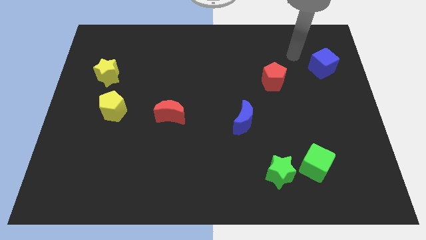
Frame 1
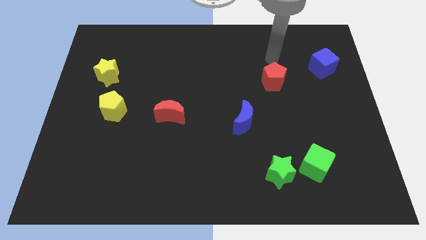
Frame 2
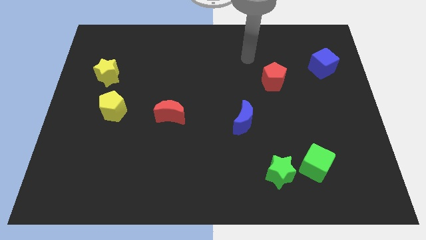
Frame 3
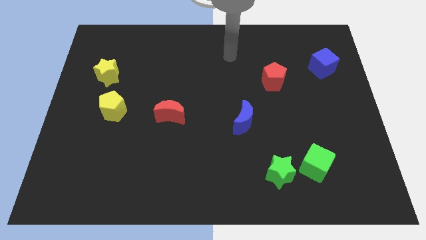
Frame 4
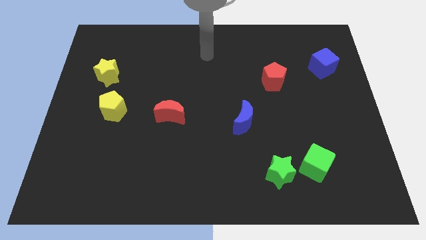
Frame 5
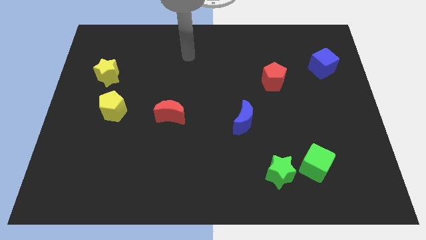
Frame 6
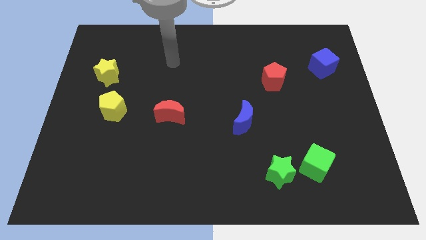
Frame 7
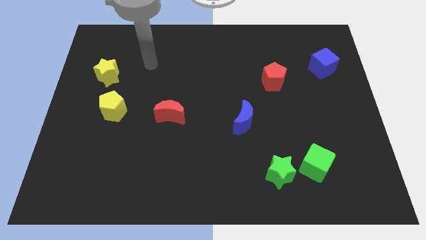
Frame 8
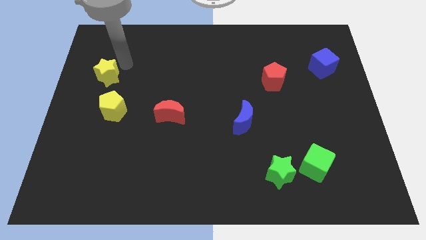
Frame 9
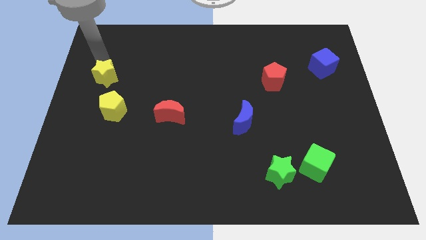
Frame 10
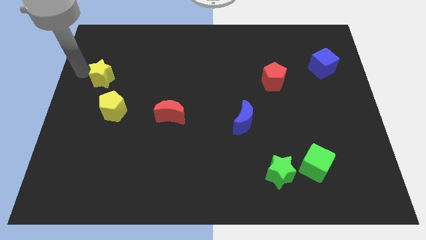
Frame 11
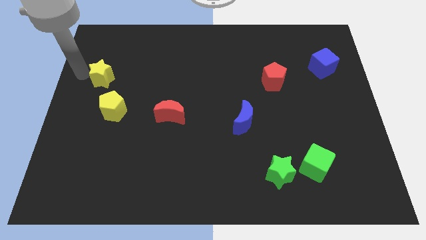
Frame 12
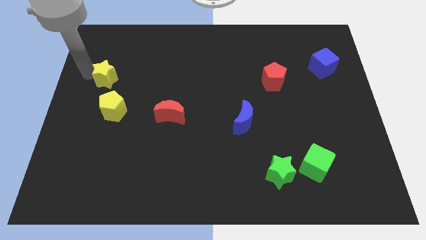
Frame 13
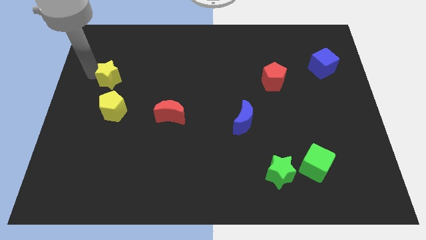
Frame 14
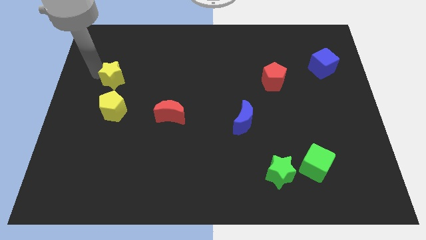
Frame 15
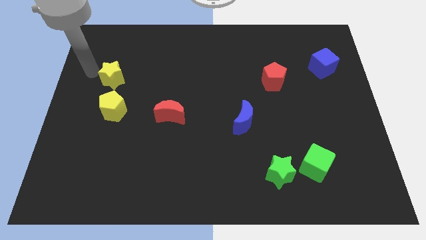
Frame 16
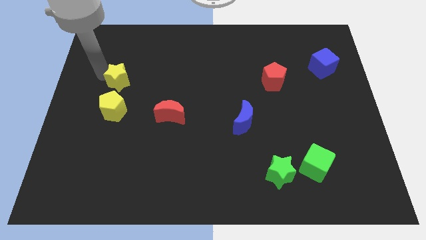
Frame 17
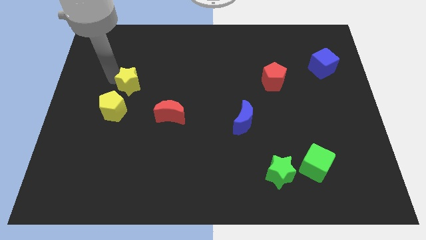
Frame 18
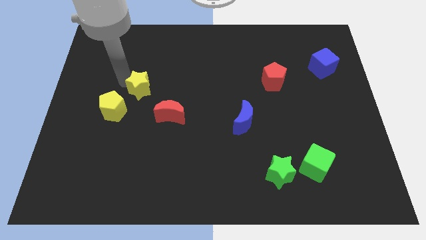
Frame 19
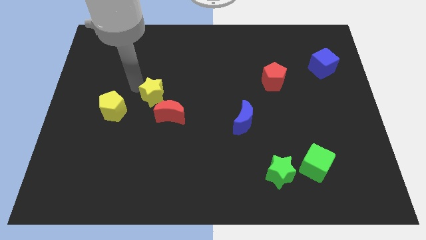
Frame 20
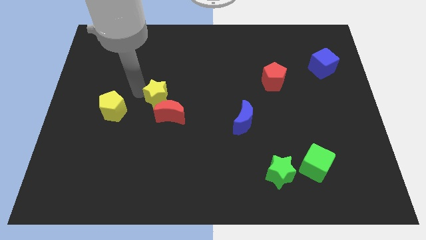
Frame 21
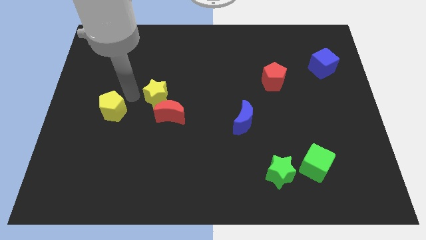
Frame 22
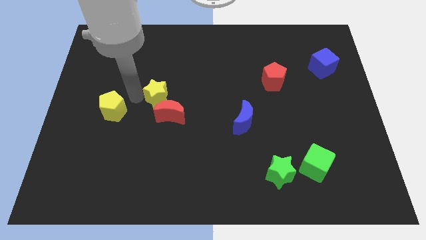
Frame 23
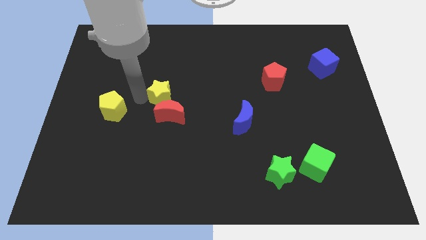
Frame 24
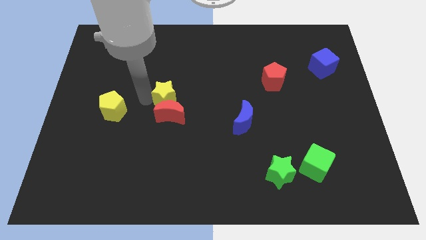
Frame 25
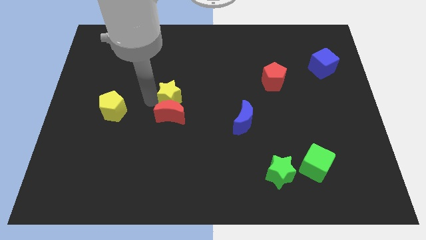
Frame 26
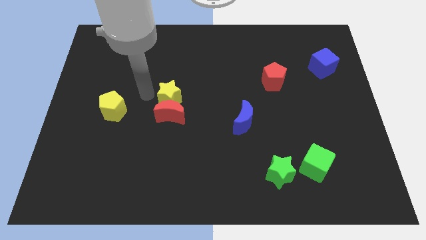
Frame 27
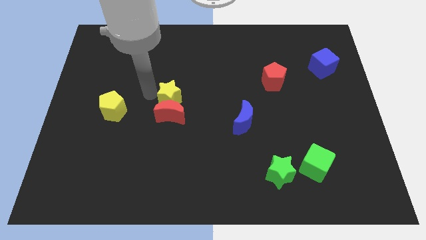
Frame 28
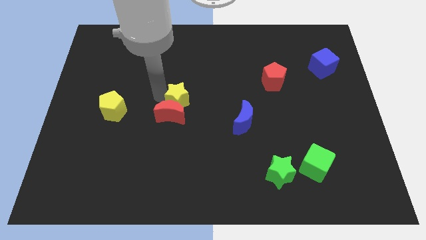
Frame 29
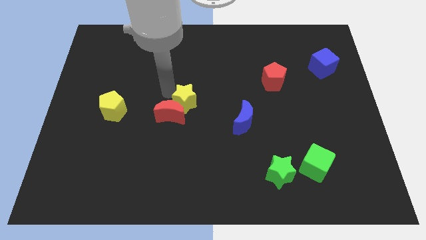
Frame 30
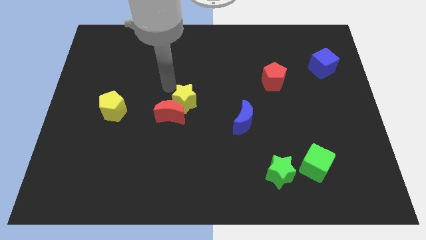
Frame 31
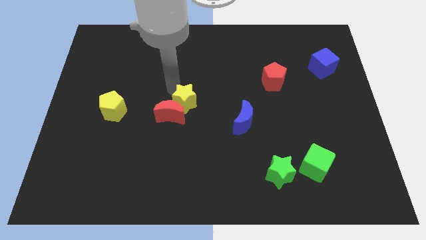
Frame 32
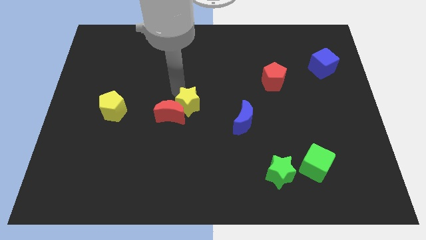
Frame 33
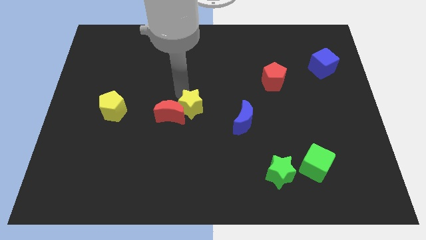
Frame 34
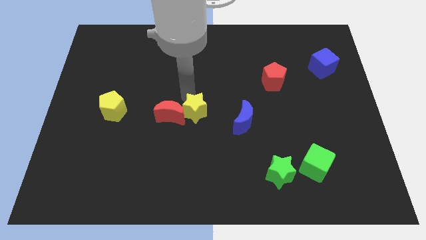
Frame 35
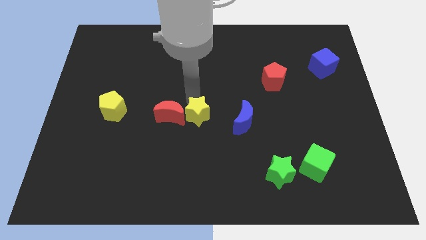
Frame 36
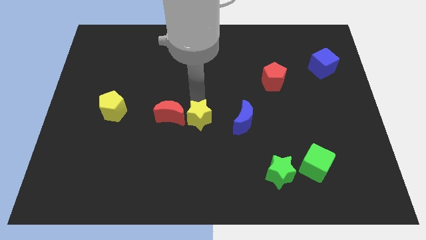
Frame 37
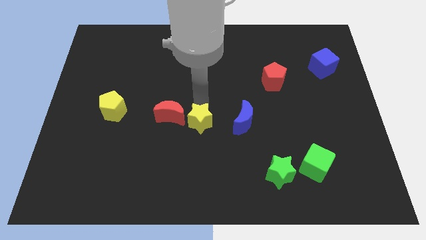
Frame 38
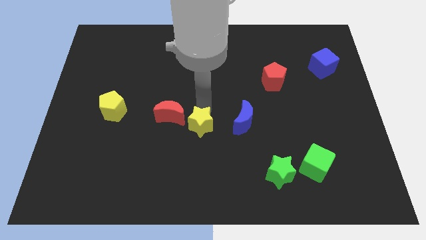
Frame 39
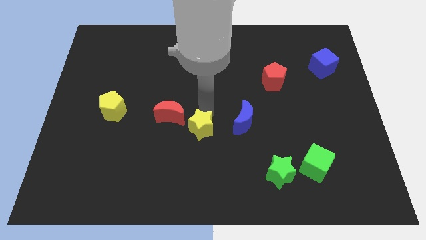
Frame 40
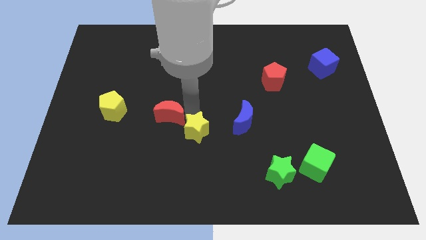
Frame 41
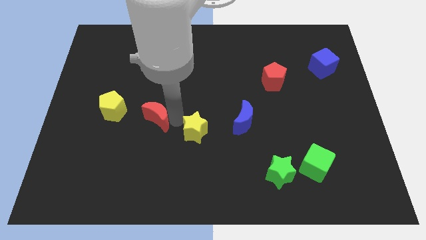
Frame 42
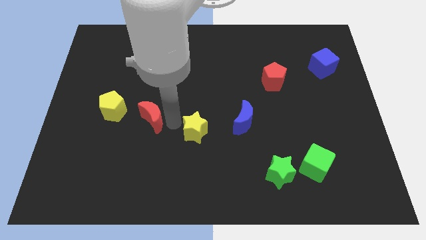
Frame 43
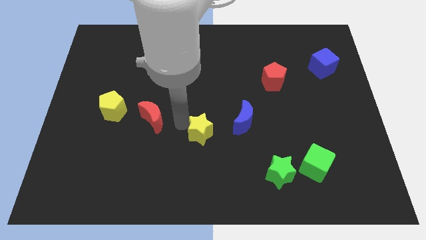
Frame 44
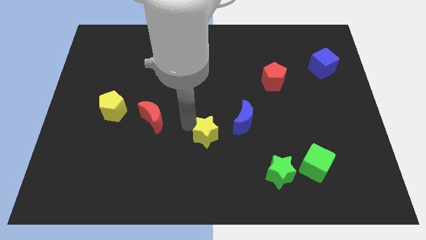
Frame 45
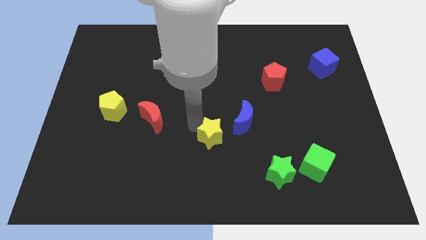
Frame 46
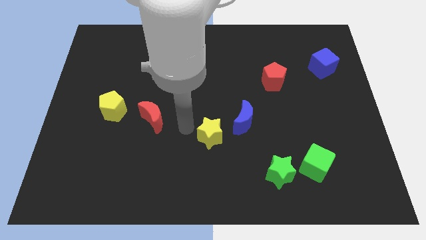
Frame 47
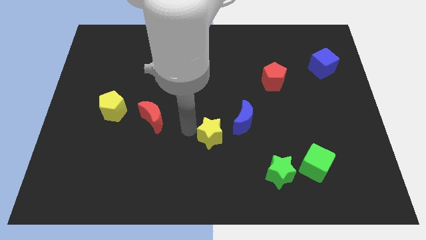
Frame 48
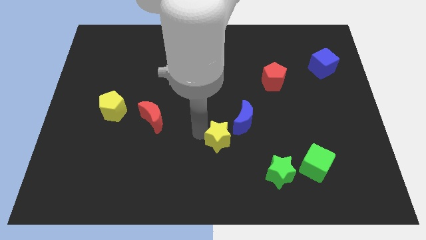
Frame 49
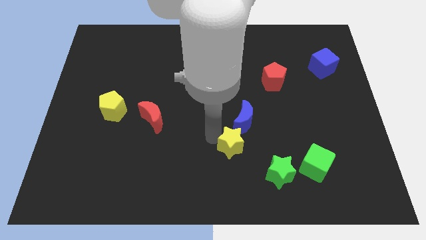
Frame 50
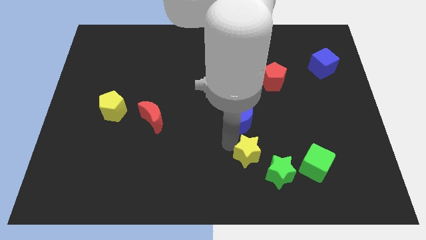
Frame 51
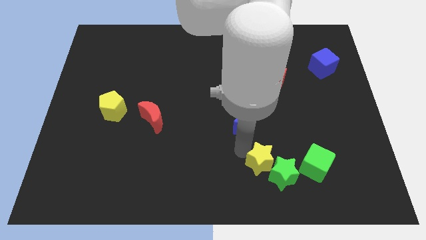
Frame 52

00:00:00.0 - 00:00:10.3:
move the yellow star next to the green star

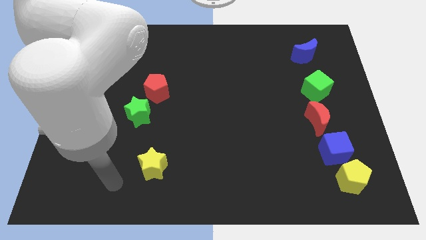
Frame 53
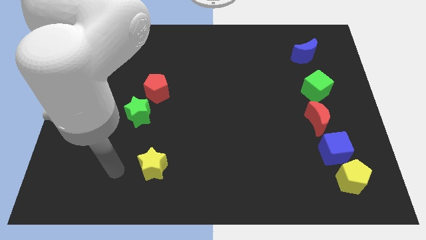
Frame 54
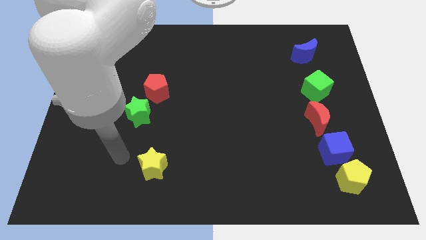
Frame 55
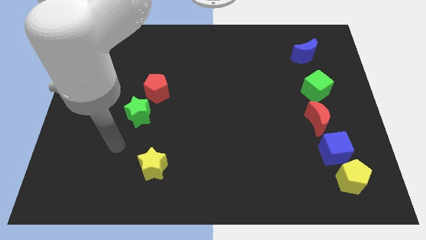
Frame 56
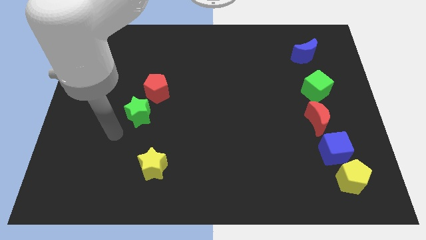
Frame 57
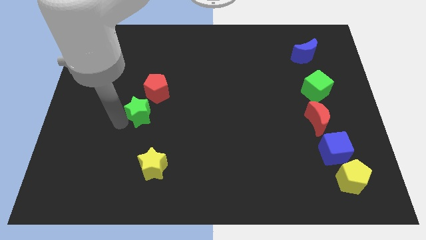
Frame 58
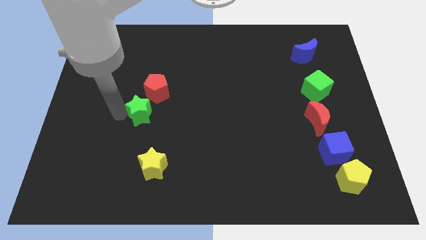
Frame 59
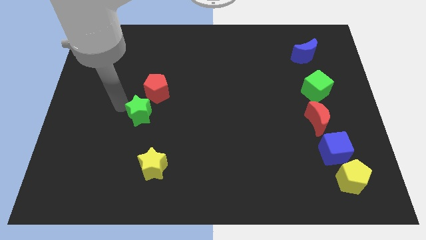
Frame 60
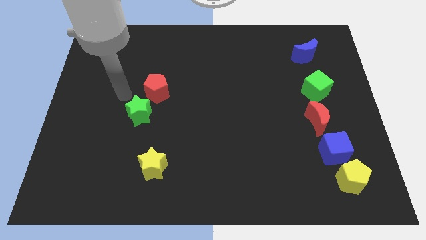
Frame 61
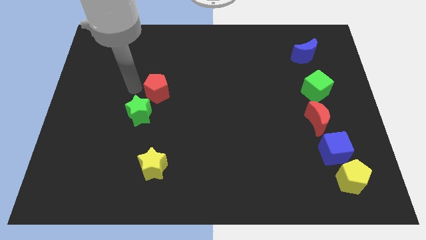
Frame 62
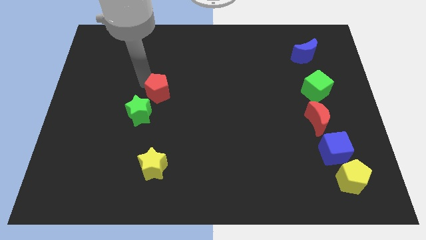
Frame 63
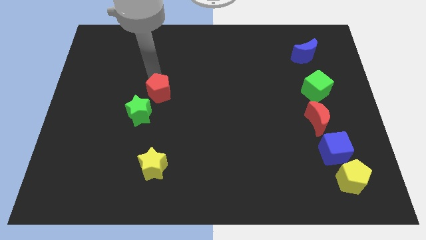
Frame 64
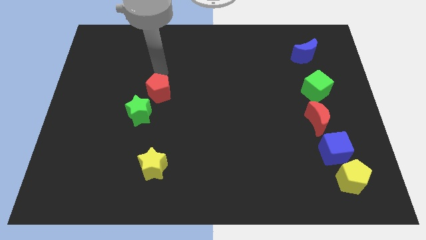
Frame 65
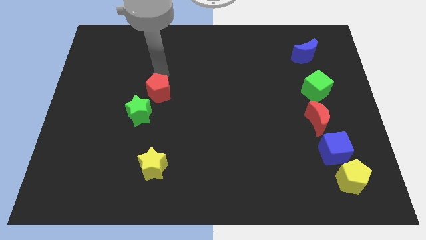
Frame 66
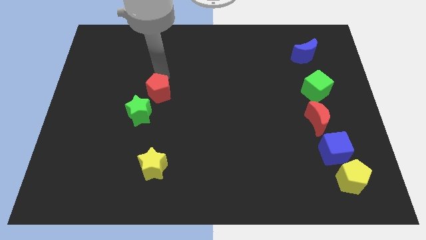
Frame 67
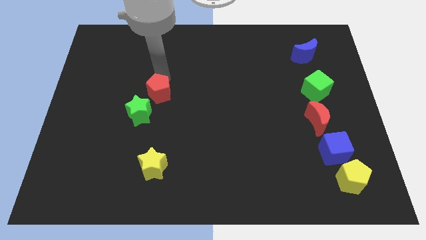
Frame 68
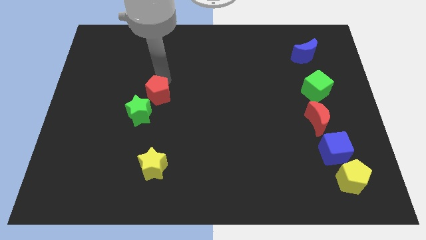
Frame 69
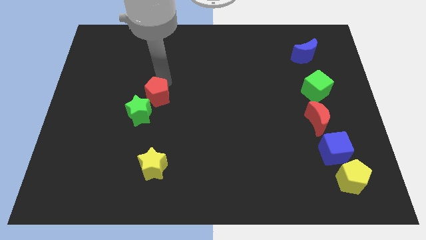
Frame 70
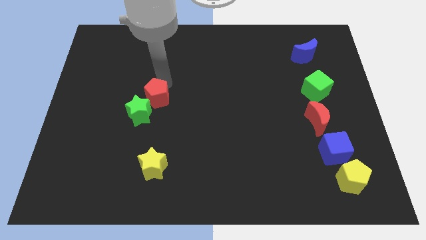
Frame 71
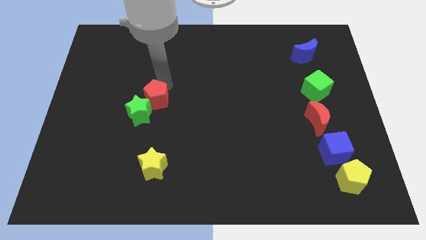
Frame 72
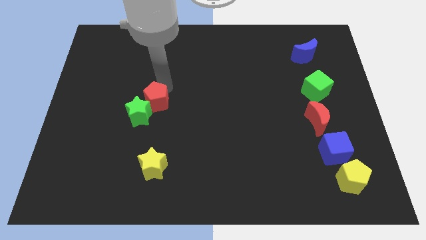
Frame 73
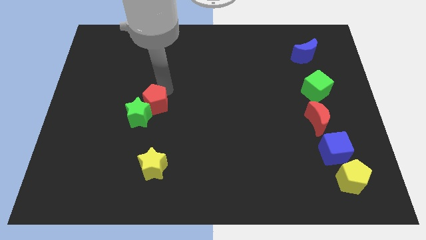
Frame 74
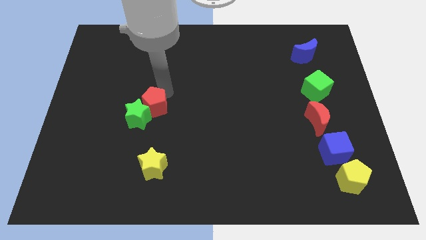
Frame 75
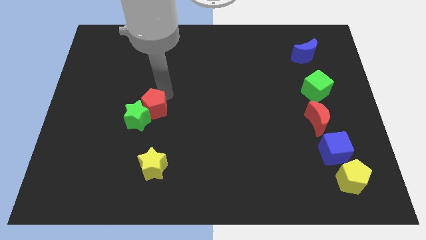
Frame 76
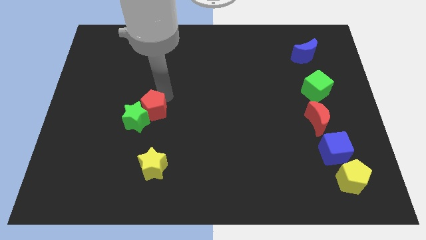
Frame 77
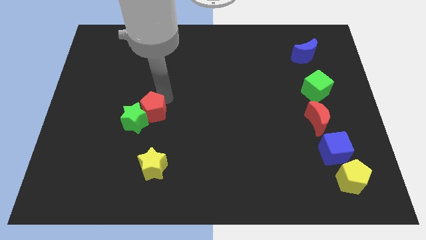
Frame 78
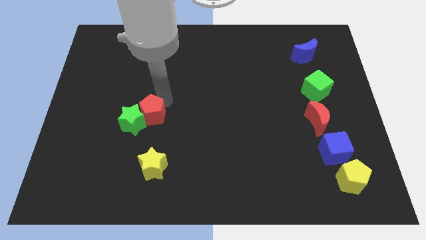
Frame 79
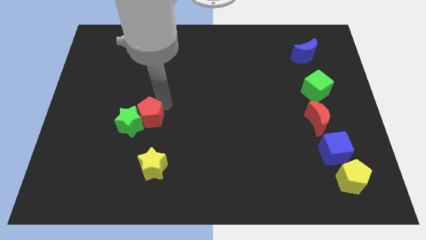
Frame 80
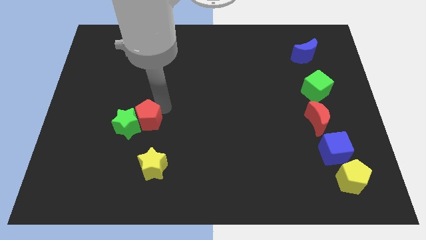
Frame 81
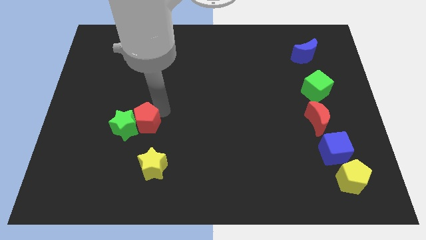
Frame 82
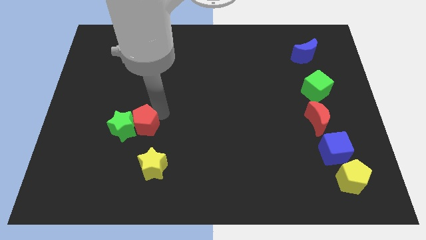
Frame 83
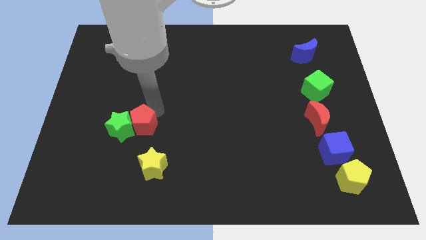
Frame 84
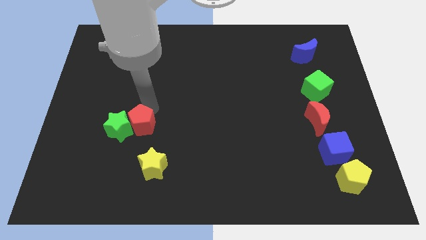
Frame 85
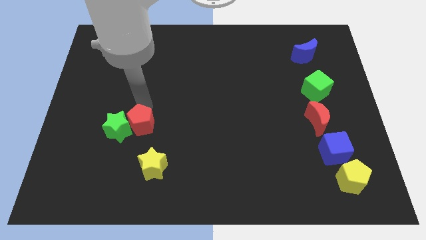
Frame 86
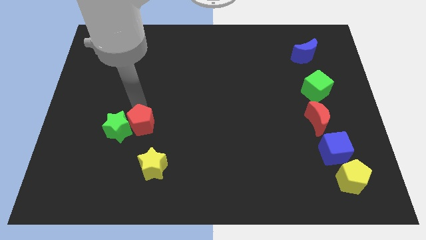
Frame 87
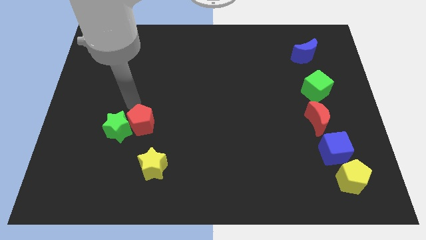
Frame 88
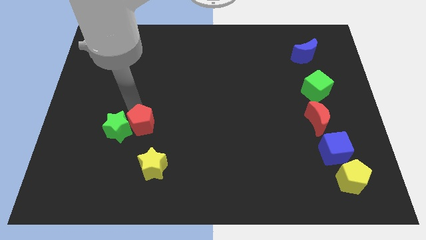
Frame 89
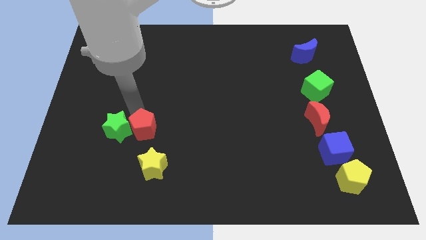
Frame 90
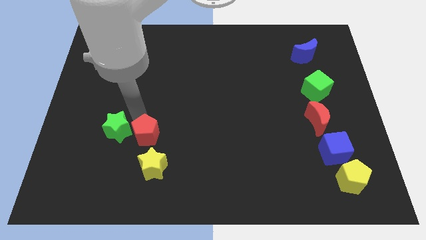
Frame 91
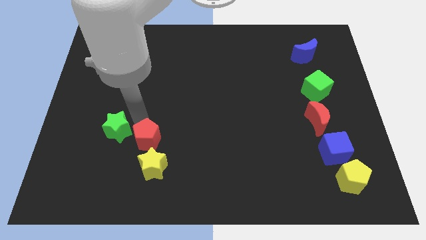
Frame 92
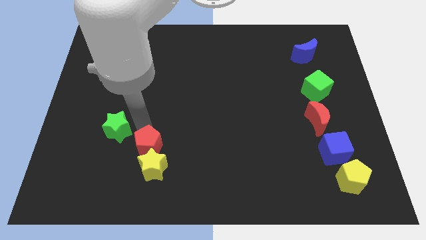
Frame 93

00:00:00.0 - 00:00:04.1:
move the red pentagon next to the yellow star
